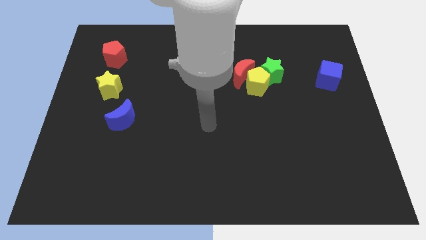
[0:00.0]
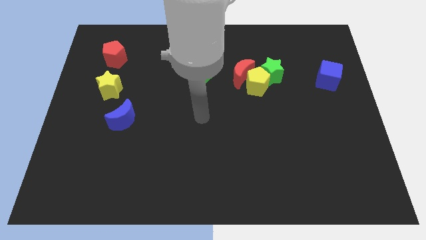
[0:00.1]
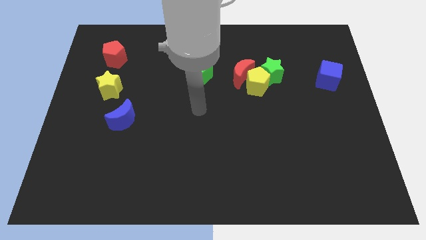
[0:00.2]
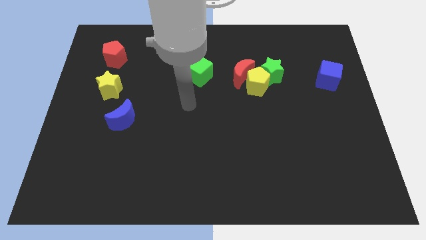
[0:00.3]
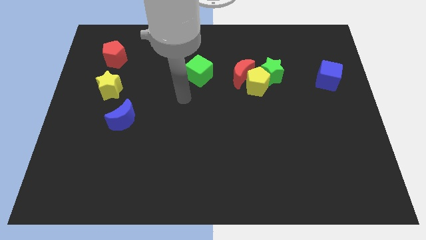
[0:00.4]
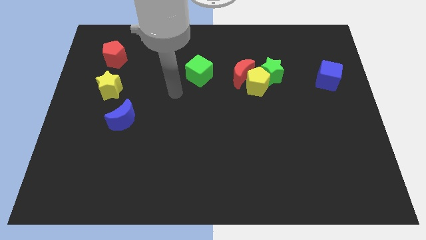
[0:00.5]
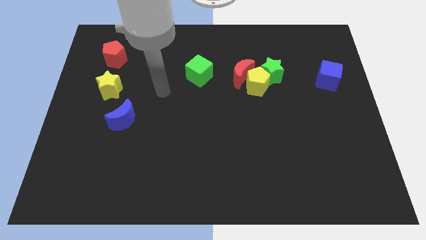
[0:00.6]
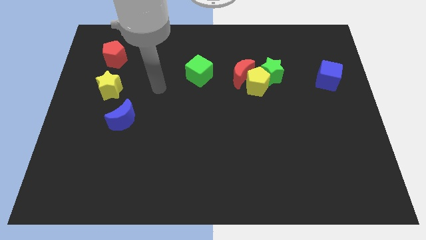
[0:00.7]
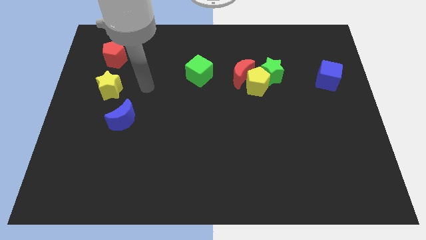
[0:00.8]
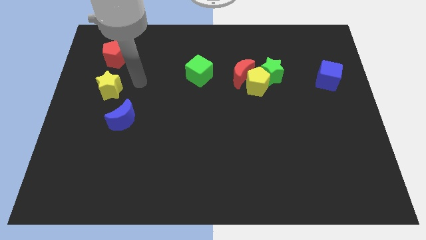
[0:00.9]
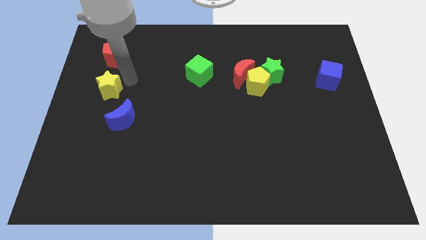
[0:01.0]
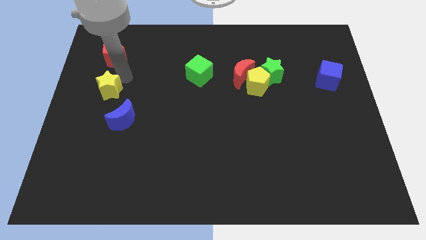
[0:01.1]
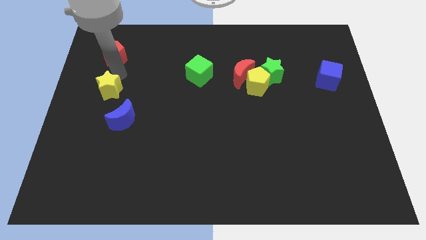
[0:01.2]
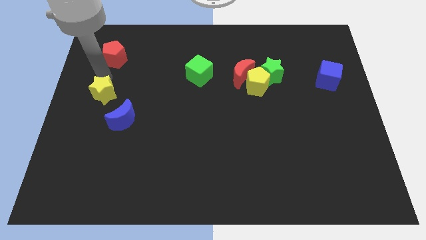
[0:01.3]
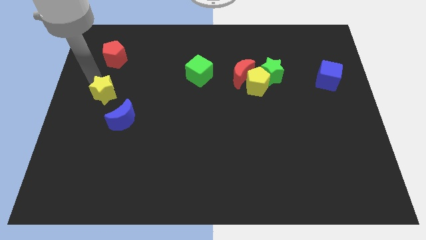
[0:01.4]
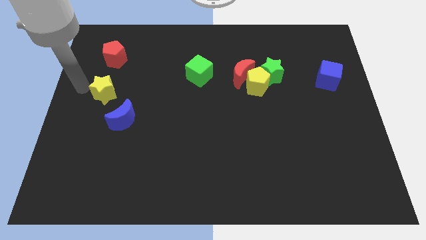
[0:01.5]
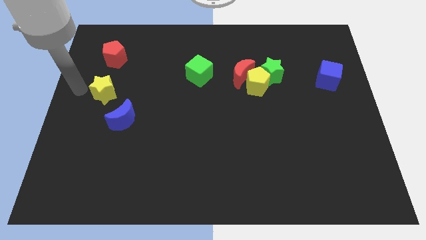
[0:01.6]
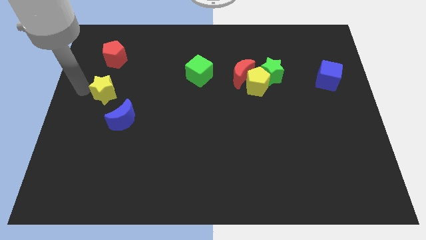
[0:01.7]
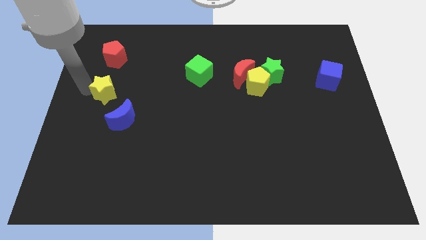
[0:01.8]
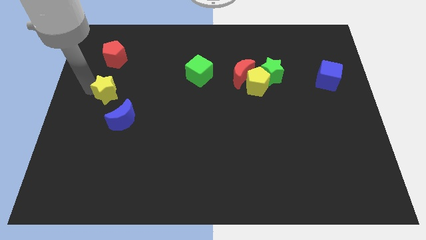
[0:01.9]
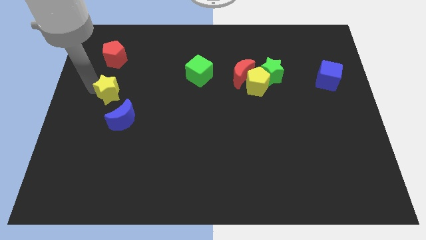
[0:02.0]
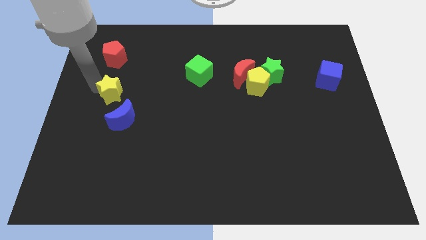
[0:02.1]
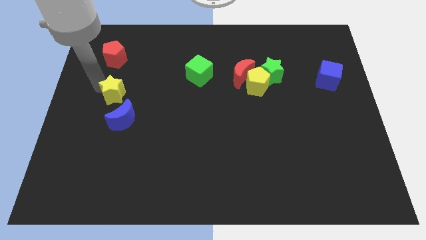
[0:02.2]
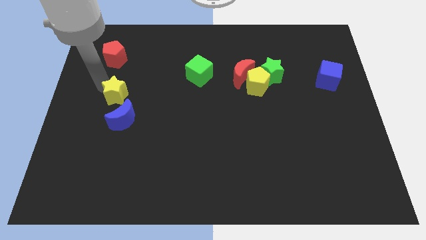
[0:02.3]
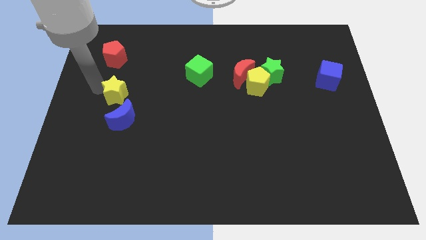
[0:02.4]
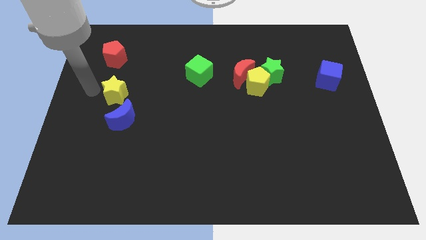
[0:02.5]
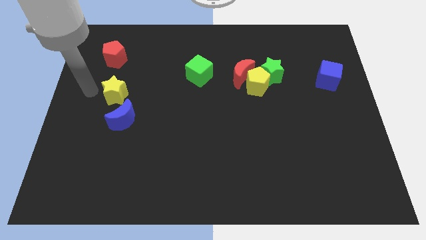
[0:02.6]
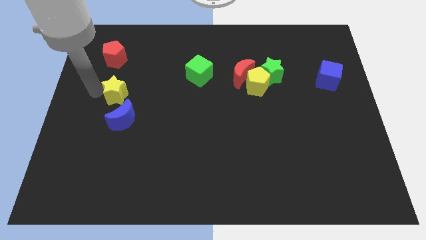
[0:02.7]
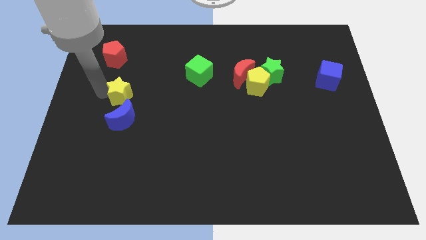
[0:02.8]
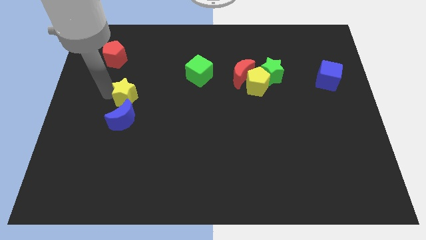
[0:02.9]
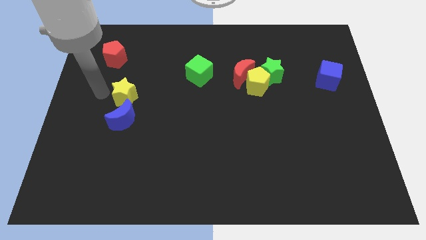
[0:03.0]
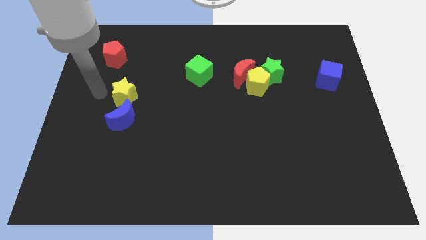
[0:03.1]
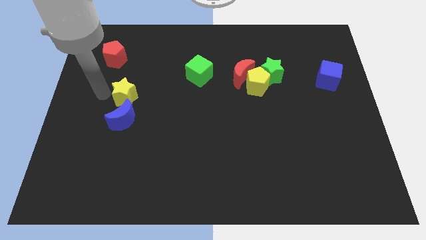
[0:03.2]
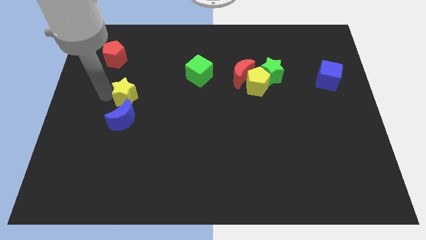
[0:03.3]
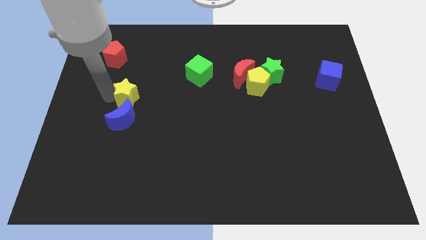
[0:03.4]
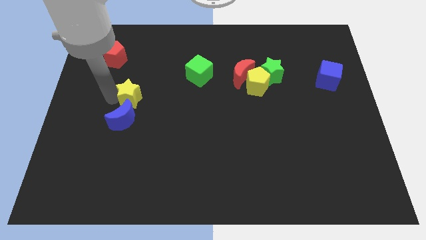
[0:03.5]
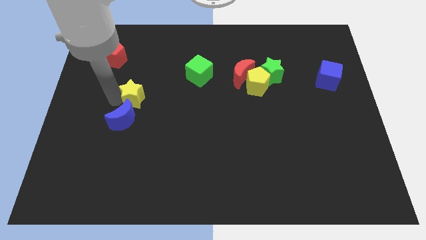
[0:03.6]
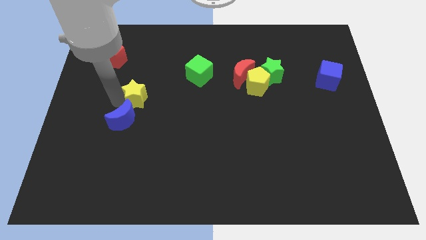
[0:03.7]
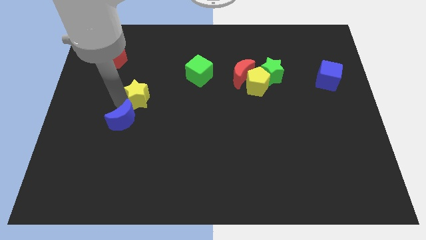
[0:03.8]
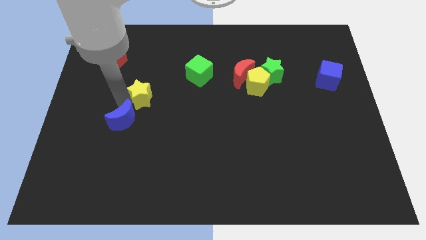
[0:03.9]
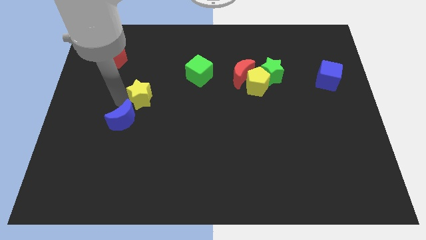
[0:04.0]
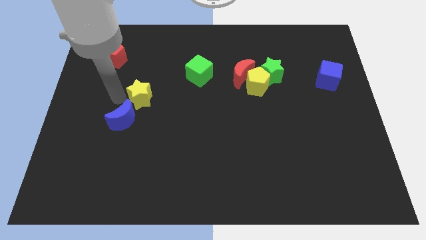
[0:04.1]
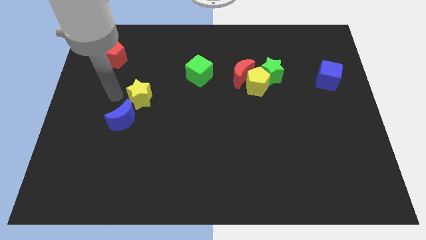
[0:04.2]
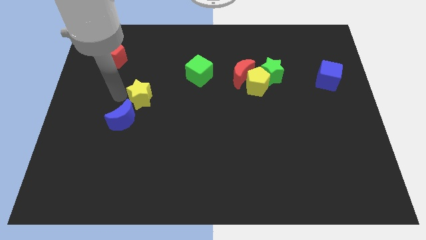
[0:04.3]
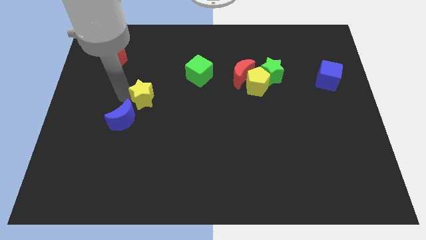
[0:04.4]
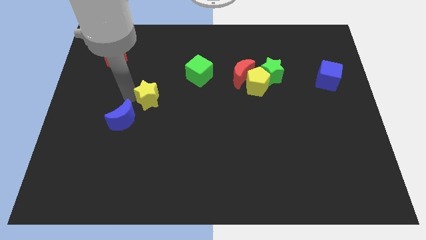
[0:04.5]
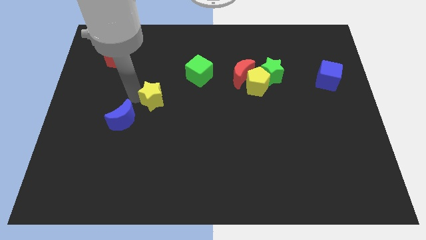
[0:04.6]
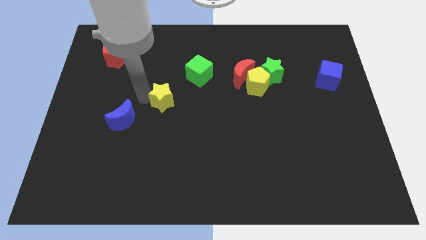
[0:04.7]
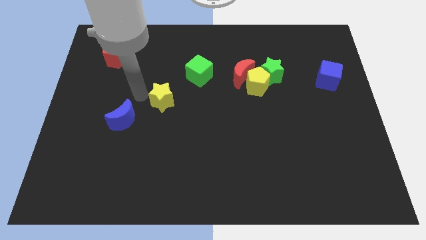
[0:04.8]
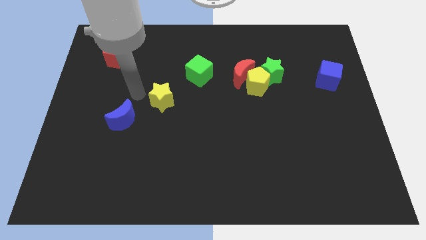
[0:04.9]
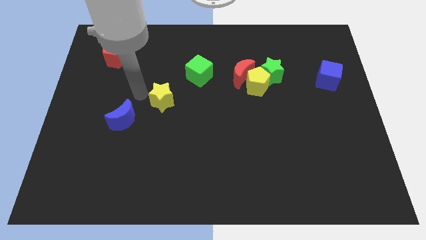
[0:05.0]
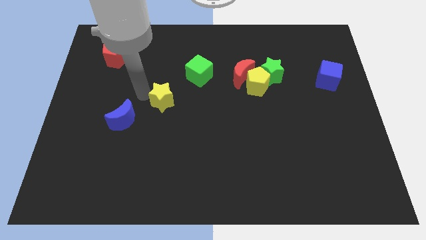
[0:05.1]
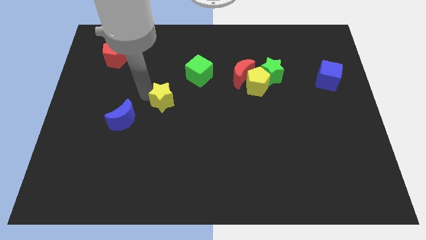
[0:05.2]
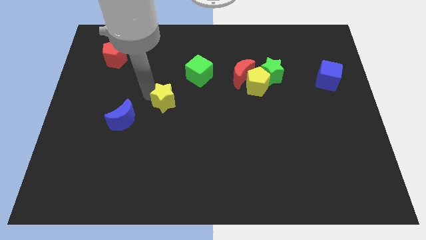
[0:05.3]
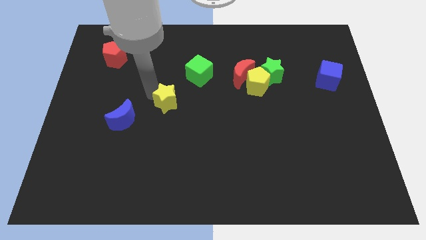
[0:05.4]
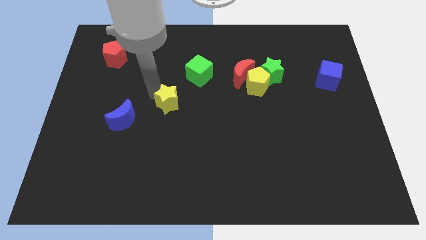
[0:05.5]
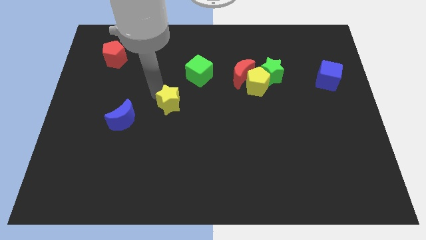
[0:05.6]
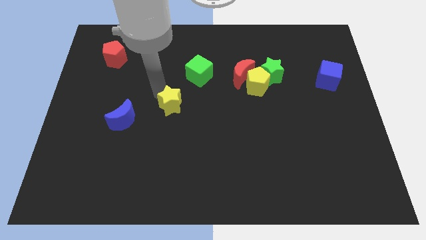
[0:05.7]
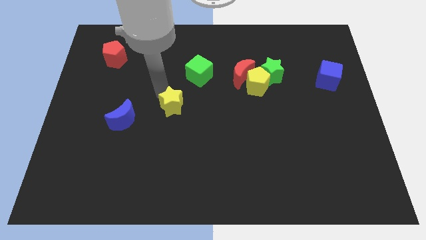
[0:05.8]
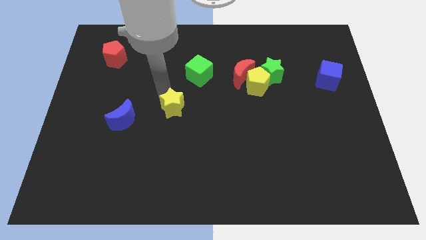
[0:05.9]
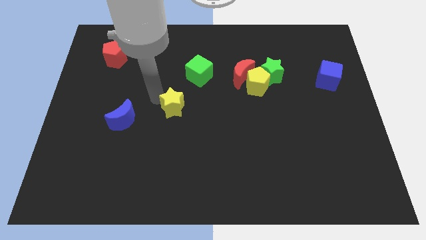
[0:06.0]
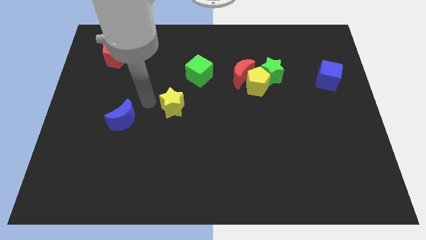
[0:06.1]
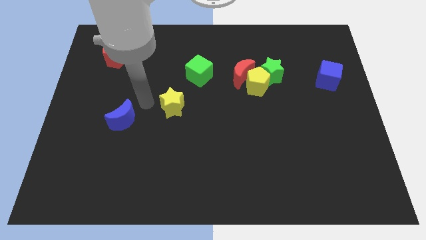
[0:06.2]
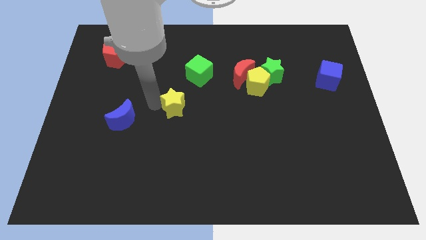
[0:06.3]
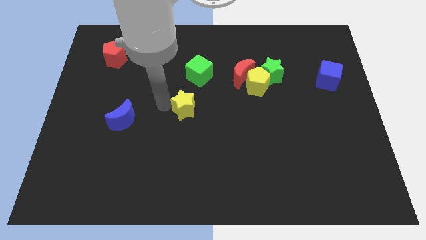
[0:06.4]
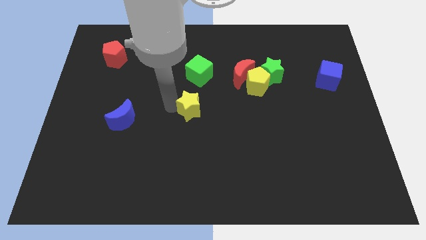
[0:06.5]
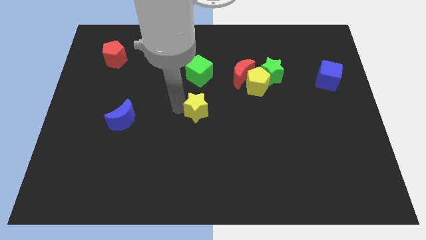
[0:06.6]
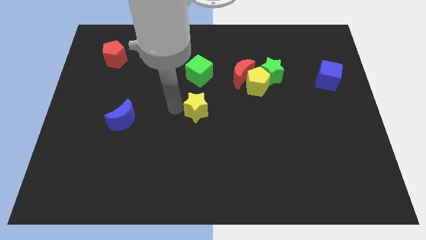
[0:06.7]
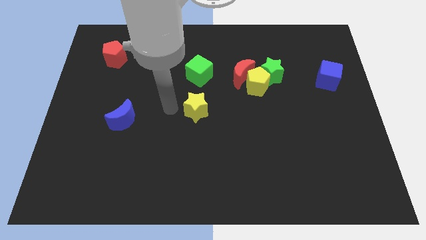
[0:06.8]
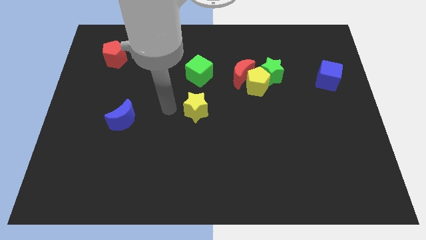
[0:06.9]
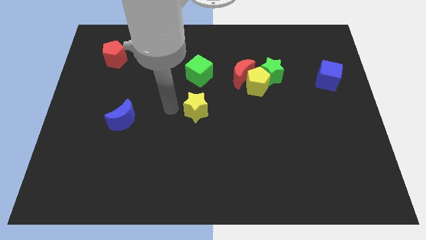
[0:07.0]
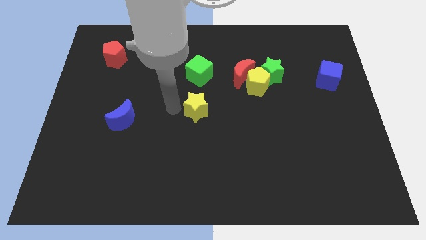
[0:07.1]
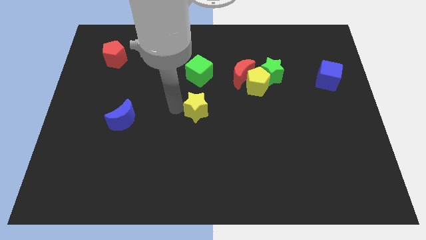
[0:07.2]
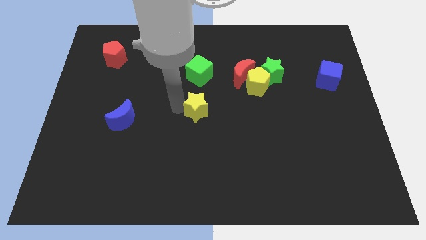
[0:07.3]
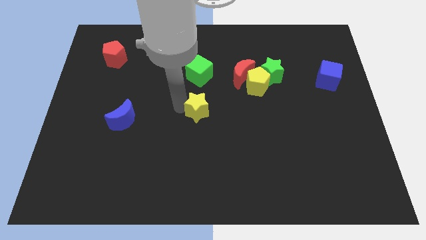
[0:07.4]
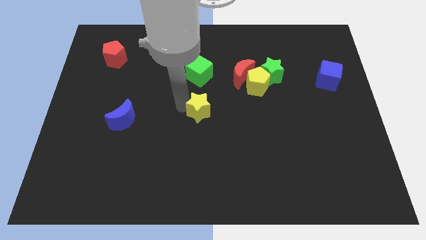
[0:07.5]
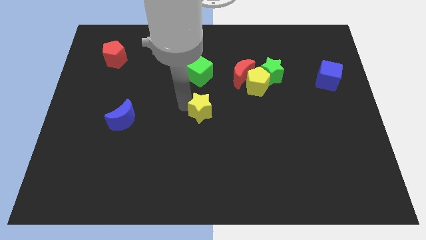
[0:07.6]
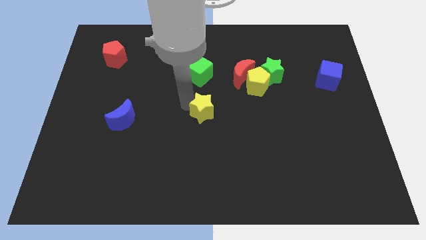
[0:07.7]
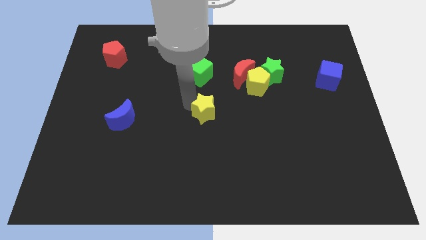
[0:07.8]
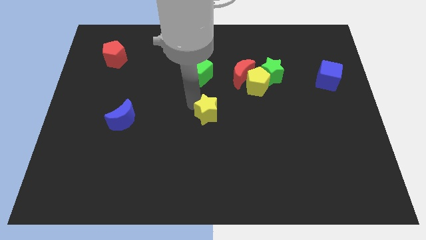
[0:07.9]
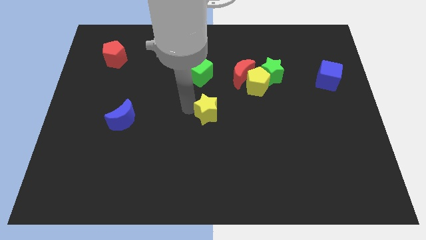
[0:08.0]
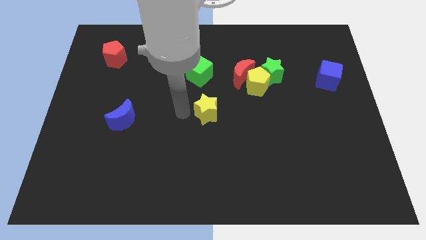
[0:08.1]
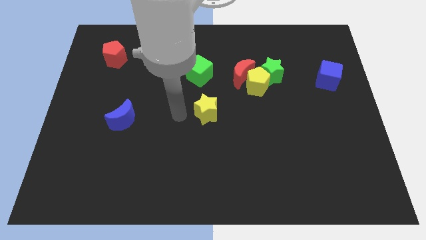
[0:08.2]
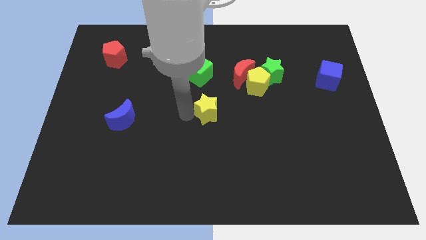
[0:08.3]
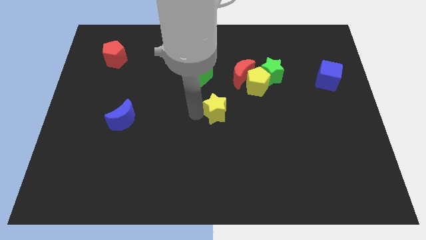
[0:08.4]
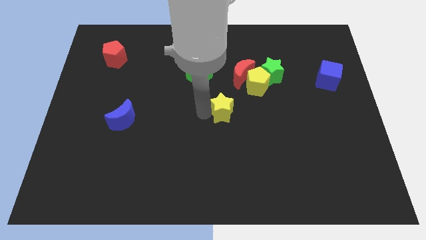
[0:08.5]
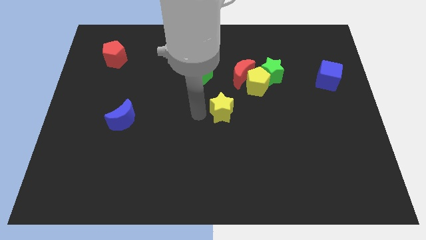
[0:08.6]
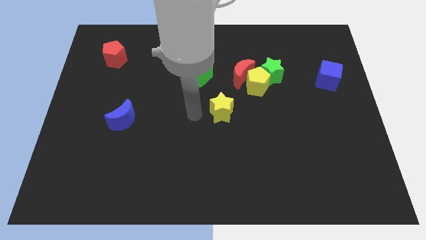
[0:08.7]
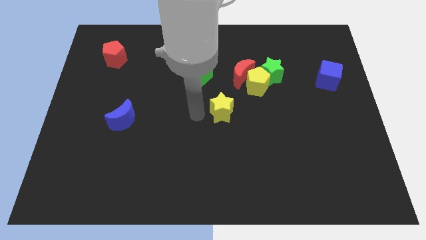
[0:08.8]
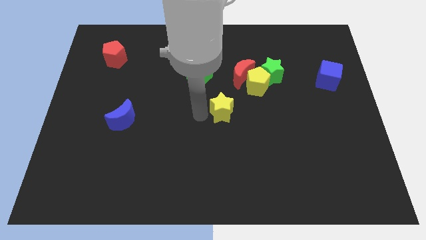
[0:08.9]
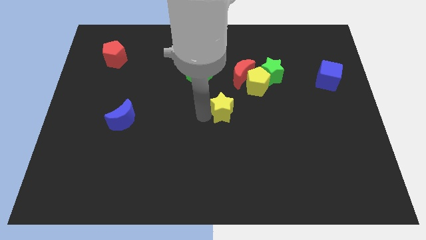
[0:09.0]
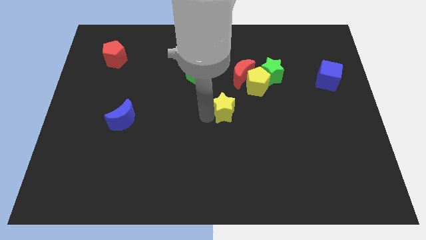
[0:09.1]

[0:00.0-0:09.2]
move the yellow star to the bottom of the red moon
